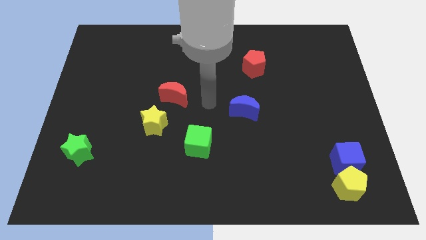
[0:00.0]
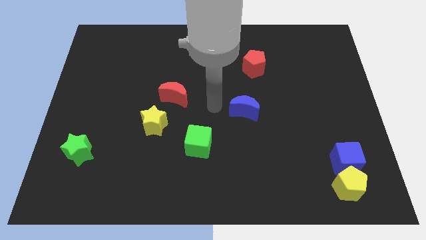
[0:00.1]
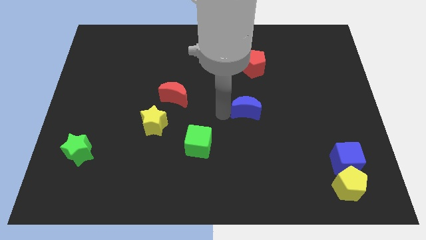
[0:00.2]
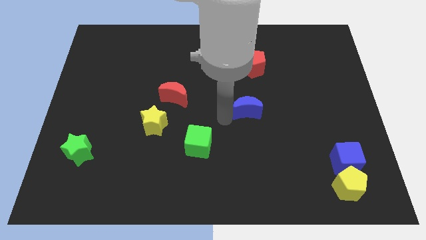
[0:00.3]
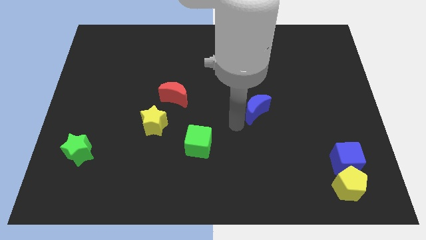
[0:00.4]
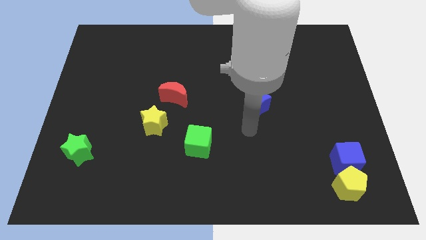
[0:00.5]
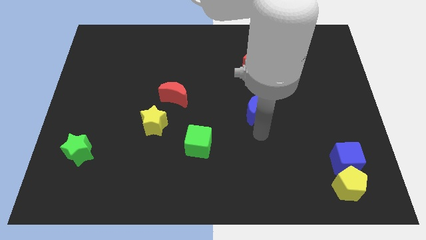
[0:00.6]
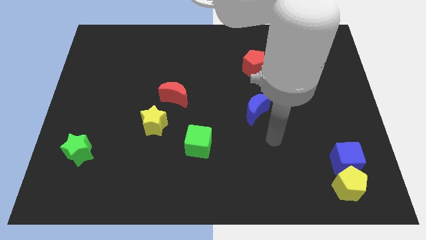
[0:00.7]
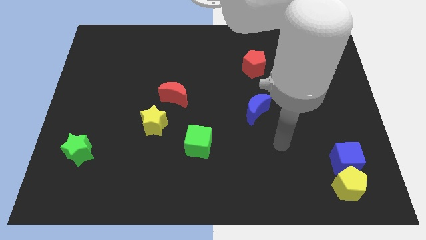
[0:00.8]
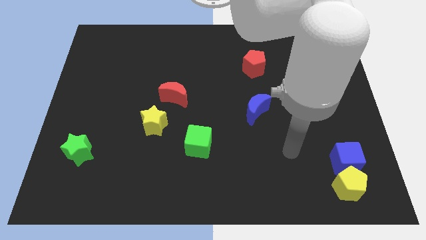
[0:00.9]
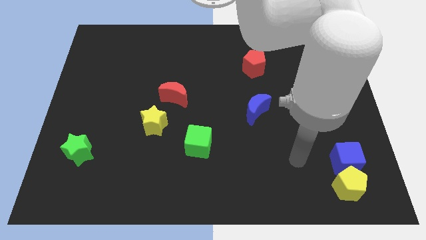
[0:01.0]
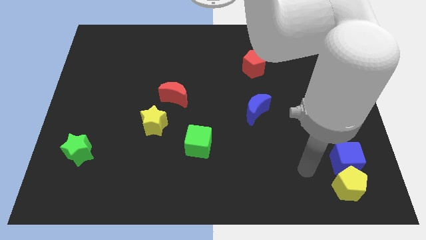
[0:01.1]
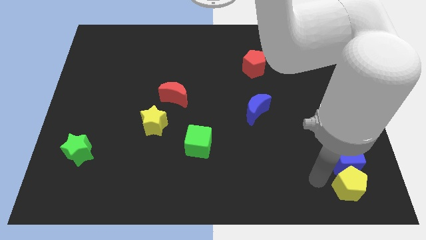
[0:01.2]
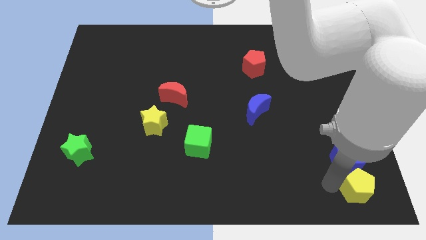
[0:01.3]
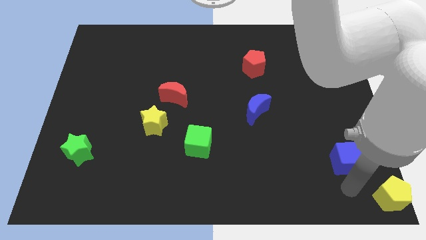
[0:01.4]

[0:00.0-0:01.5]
move the blue cube away from the yellow pentagon

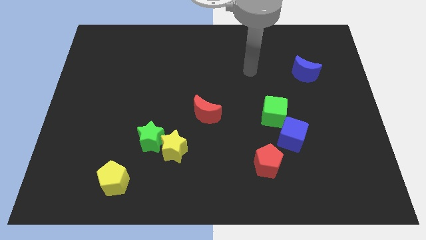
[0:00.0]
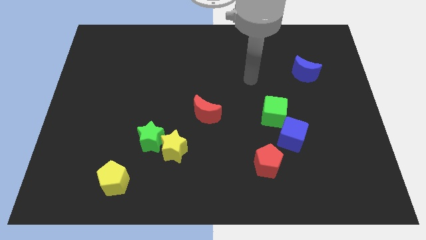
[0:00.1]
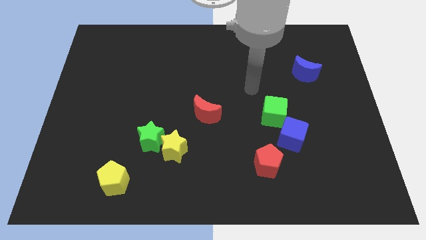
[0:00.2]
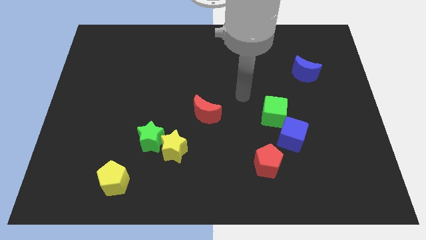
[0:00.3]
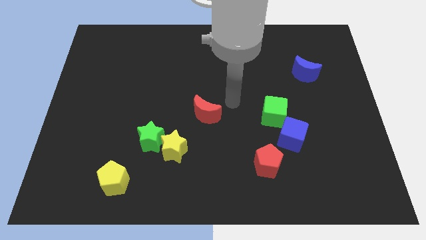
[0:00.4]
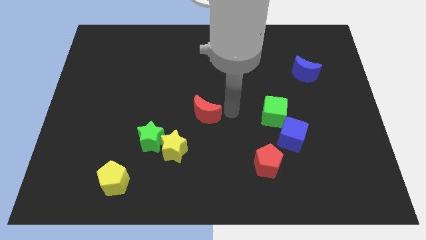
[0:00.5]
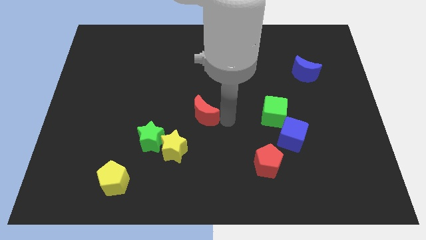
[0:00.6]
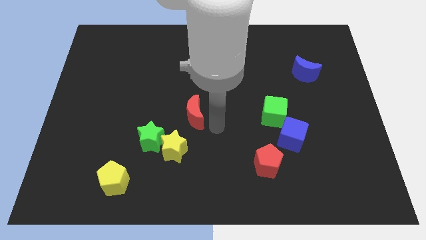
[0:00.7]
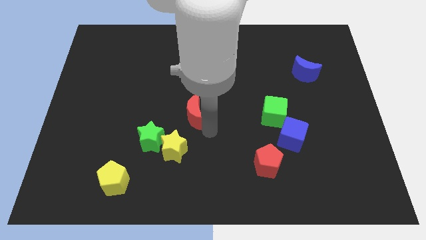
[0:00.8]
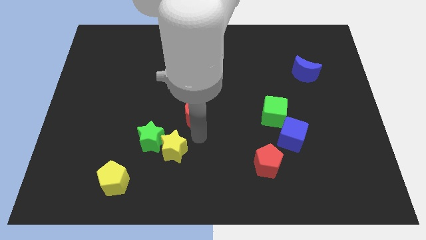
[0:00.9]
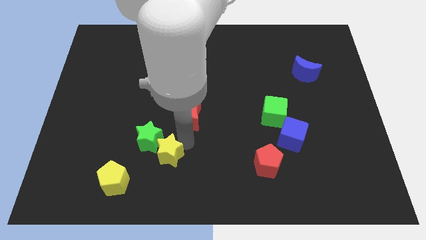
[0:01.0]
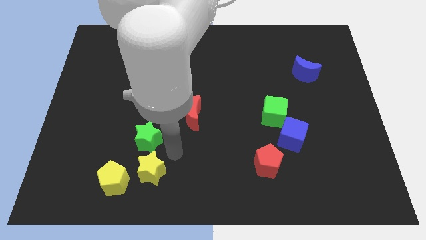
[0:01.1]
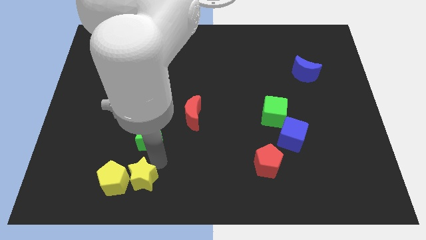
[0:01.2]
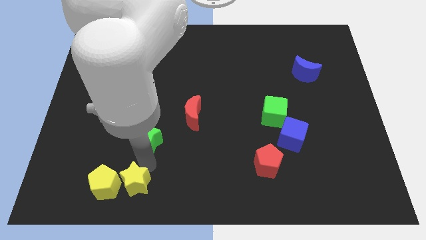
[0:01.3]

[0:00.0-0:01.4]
separate the green star from the yellow star

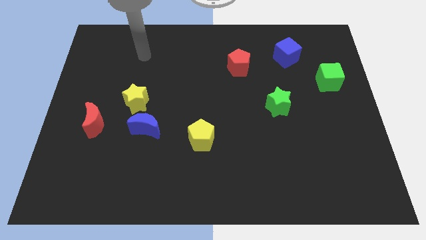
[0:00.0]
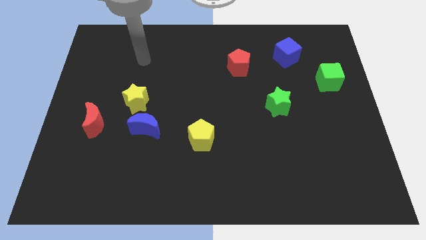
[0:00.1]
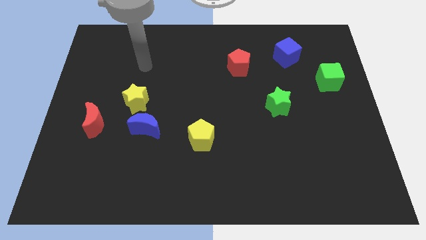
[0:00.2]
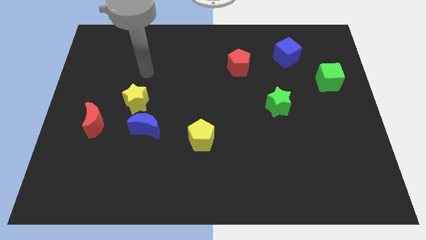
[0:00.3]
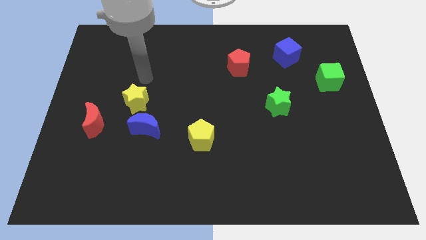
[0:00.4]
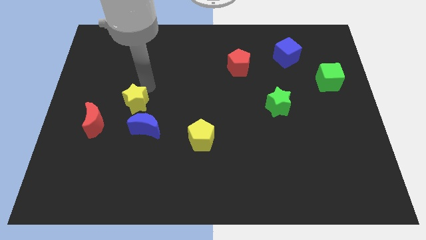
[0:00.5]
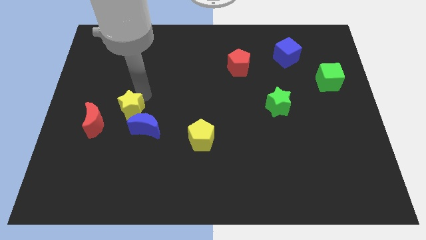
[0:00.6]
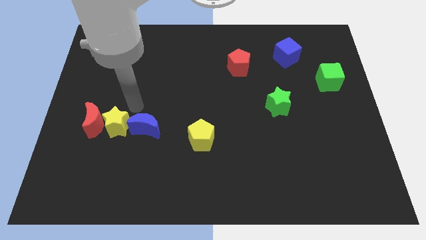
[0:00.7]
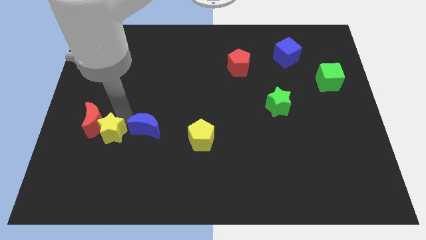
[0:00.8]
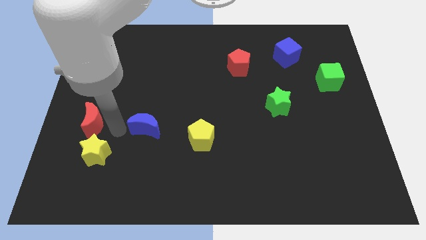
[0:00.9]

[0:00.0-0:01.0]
move the blue moon away from the yellow star

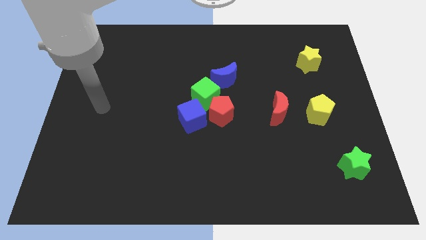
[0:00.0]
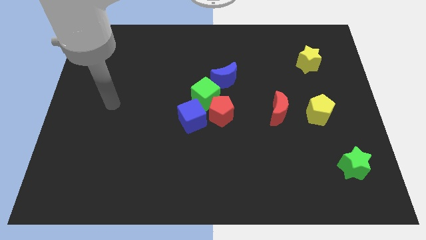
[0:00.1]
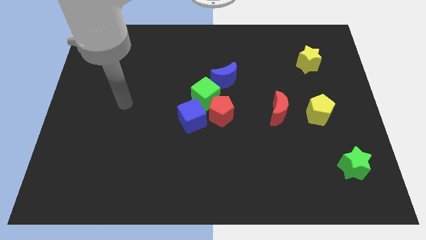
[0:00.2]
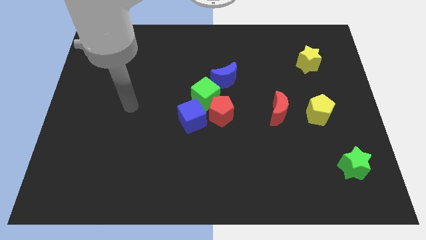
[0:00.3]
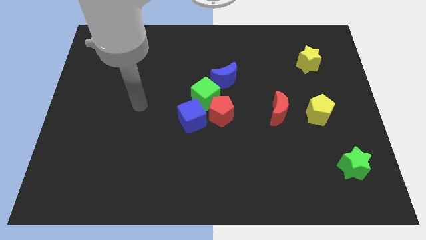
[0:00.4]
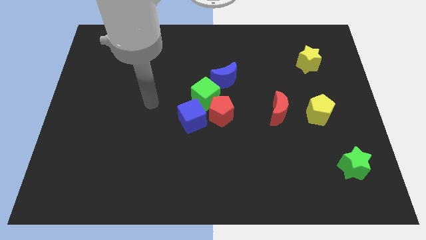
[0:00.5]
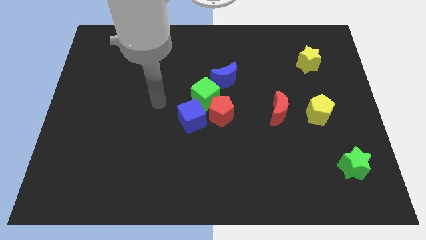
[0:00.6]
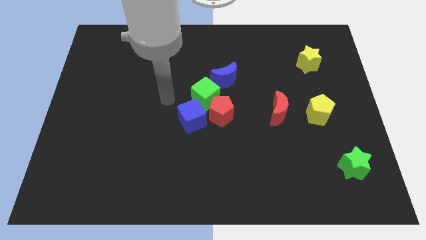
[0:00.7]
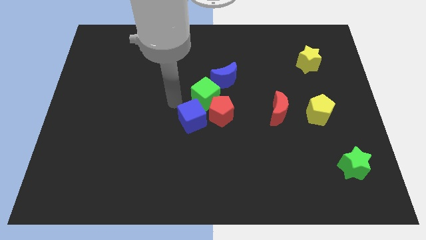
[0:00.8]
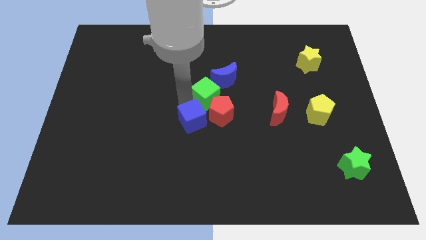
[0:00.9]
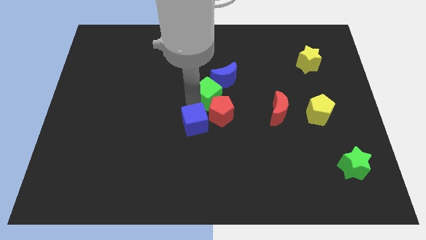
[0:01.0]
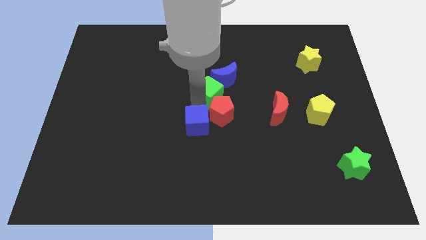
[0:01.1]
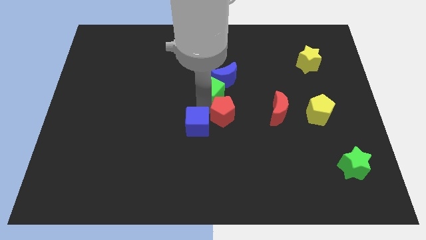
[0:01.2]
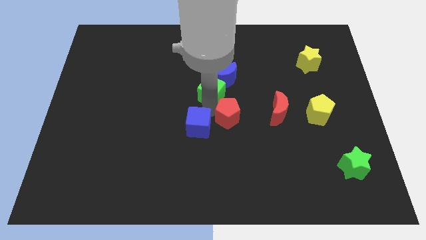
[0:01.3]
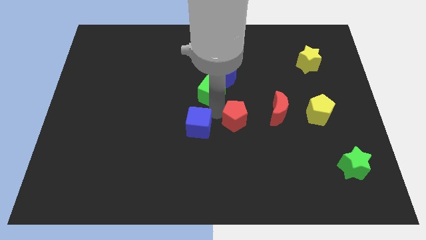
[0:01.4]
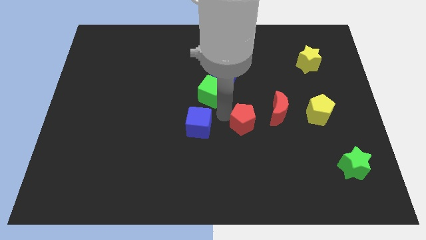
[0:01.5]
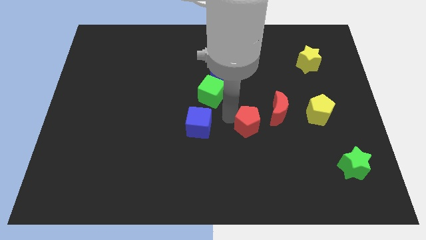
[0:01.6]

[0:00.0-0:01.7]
separate the red pentagon from the green cube and blue cube

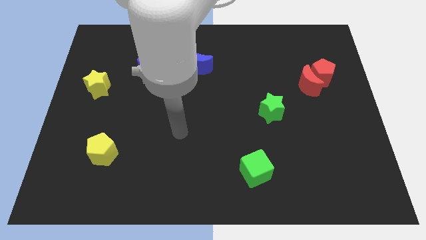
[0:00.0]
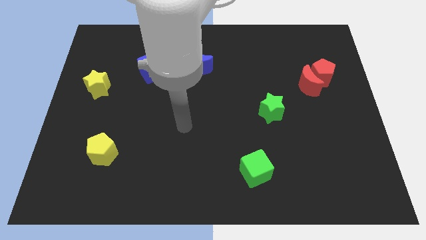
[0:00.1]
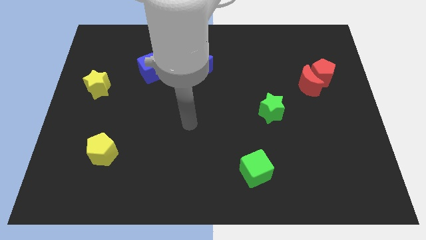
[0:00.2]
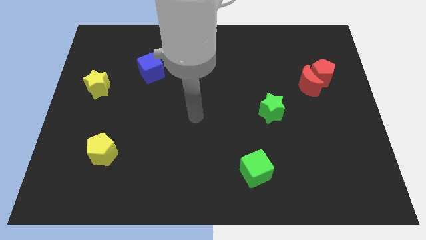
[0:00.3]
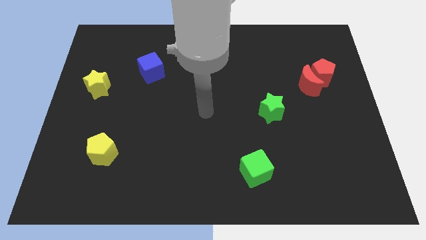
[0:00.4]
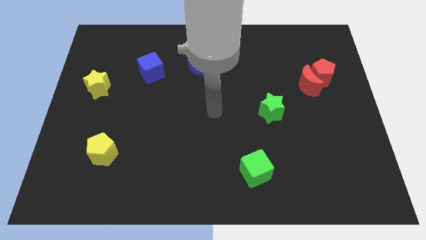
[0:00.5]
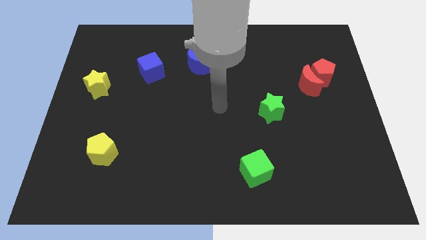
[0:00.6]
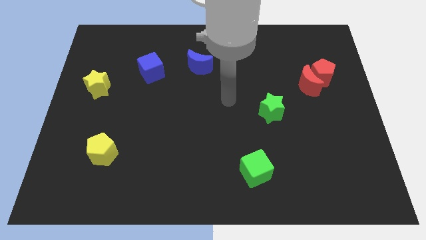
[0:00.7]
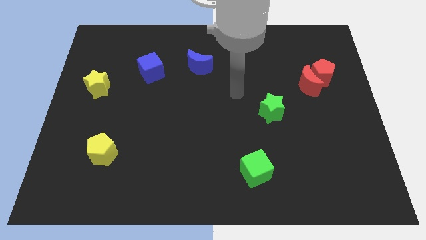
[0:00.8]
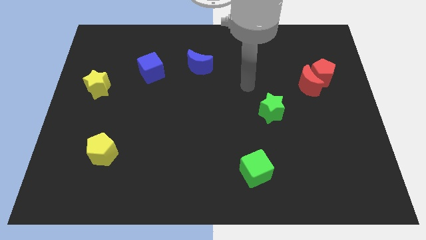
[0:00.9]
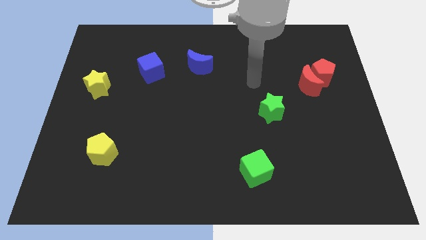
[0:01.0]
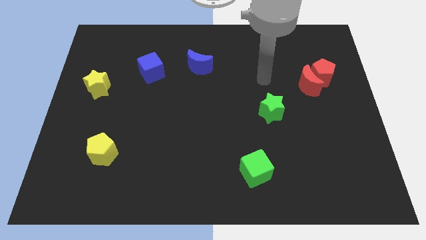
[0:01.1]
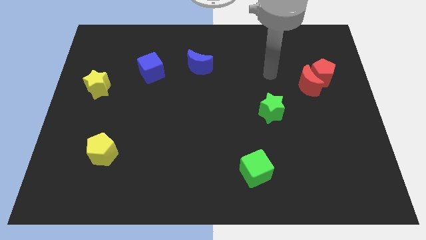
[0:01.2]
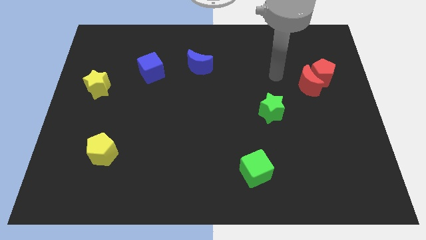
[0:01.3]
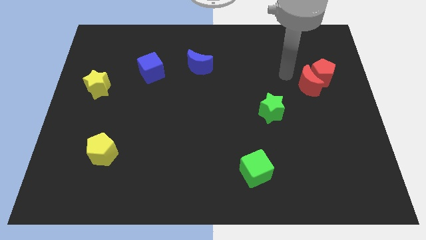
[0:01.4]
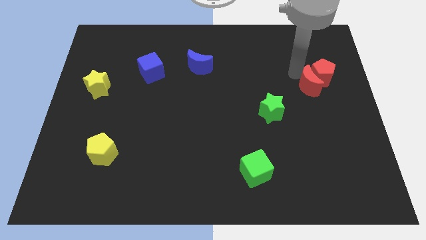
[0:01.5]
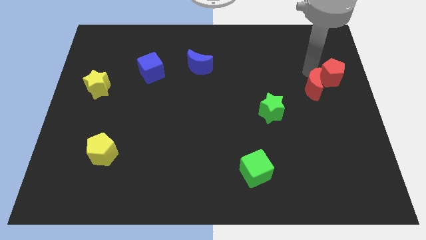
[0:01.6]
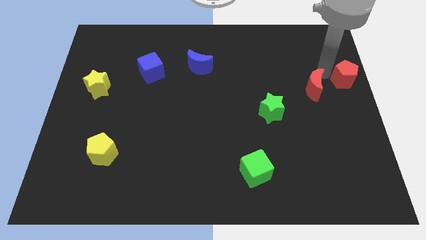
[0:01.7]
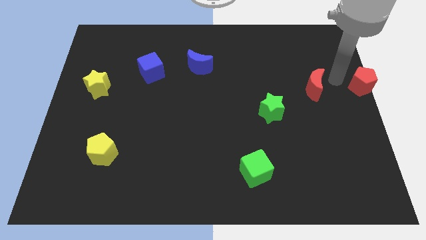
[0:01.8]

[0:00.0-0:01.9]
move the red moon away from the red pentagon

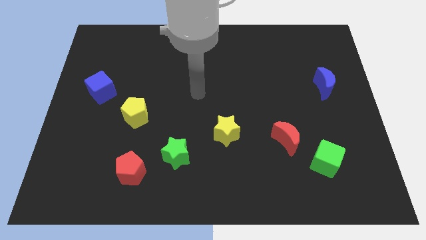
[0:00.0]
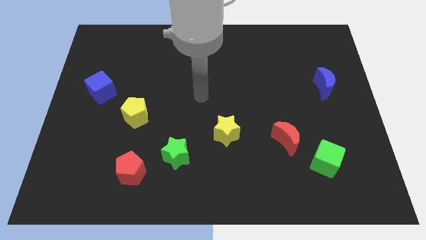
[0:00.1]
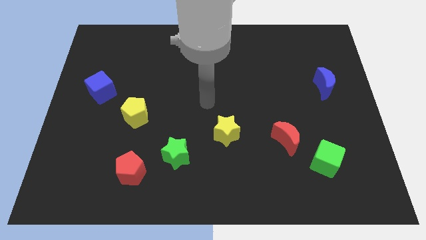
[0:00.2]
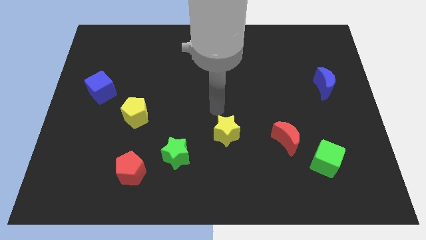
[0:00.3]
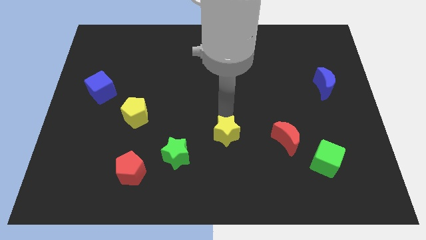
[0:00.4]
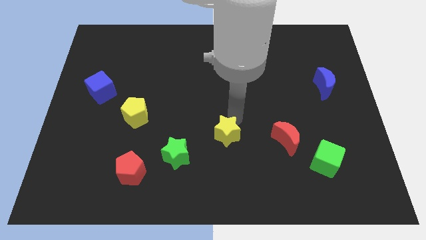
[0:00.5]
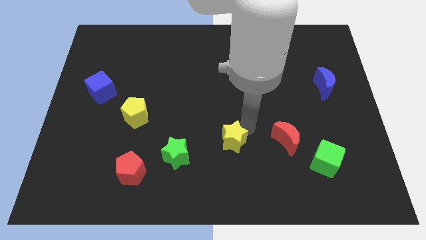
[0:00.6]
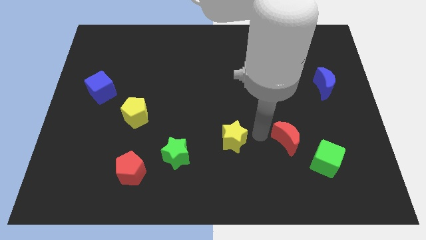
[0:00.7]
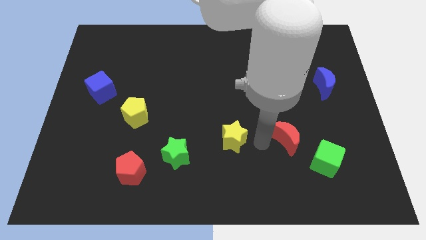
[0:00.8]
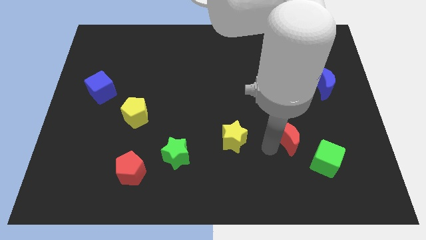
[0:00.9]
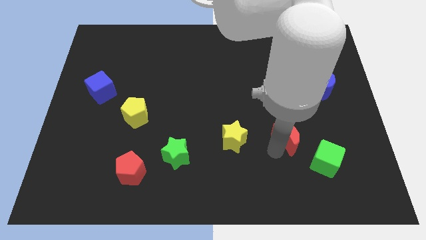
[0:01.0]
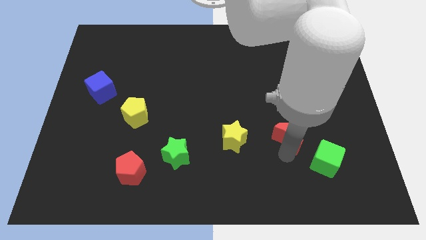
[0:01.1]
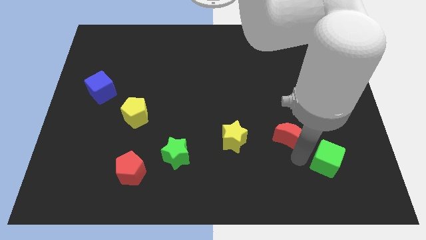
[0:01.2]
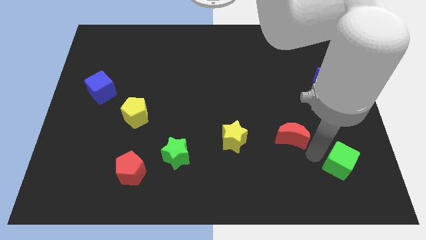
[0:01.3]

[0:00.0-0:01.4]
separate the red moon from the green cube

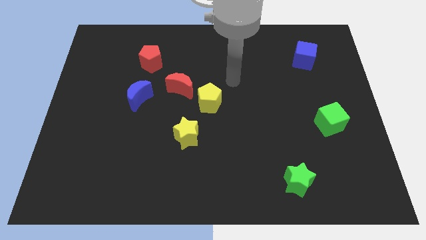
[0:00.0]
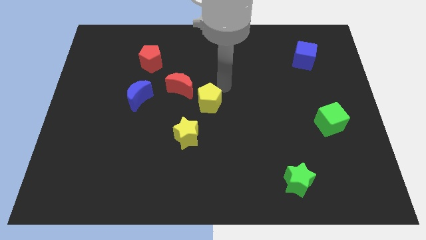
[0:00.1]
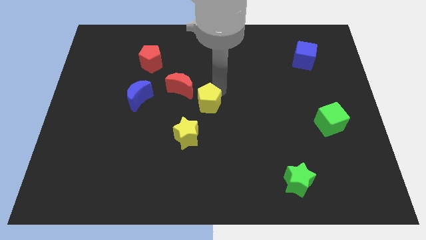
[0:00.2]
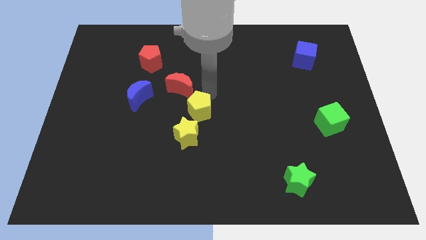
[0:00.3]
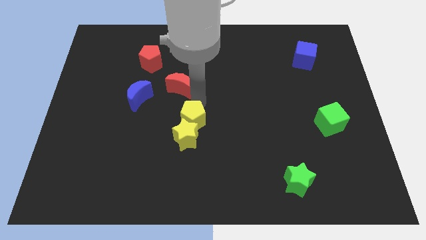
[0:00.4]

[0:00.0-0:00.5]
separate the red moon from the yellow pentagon
